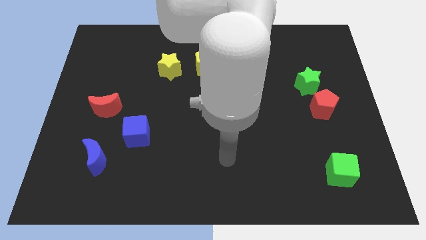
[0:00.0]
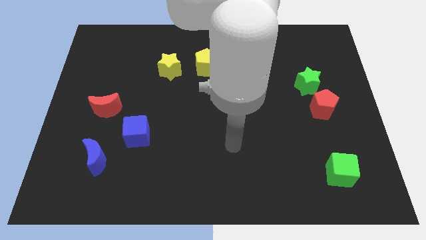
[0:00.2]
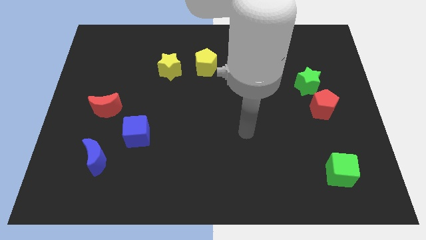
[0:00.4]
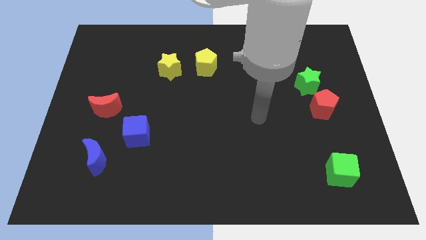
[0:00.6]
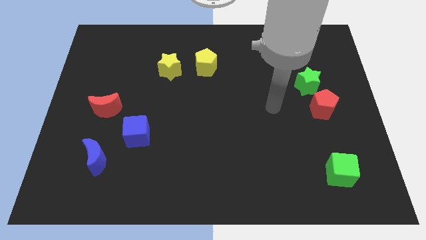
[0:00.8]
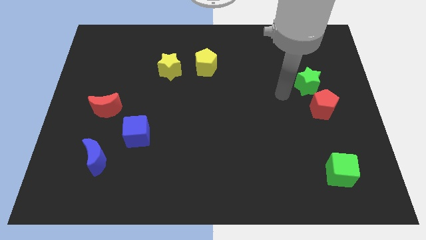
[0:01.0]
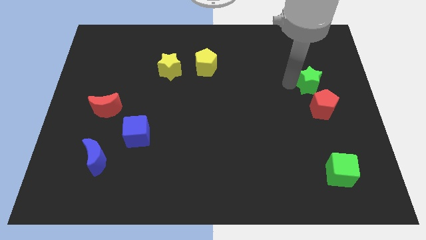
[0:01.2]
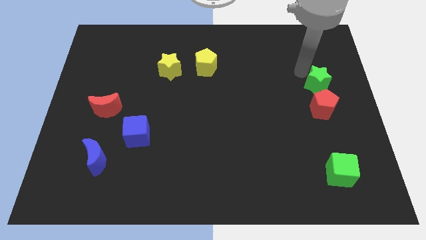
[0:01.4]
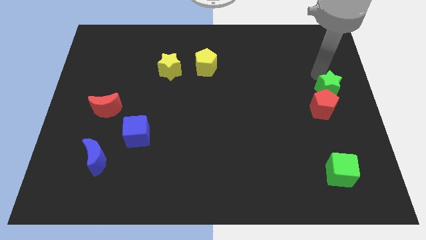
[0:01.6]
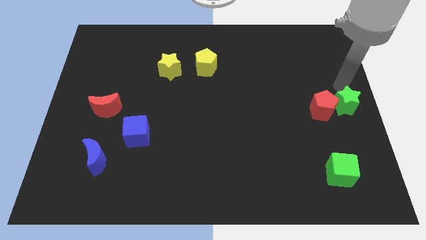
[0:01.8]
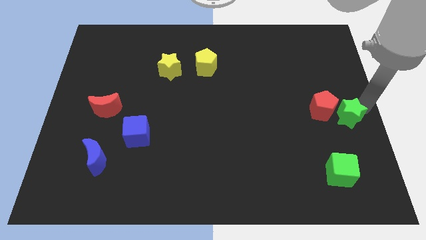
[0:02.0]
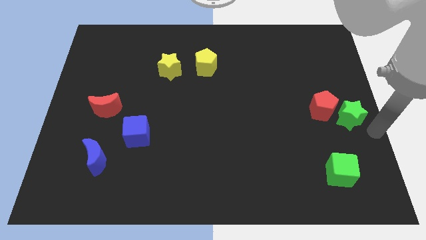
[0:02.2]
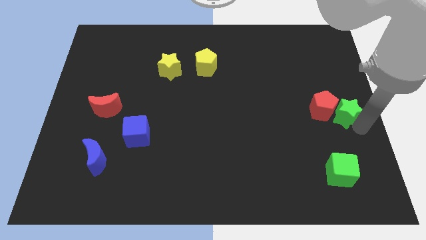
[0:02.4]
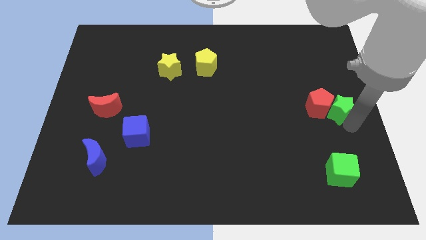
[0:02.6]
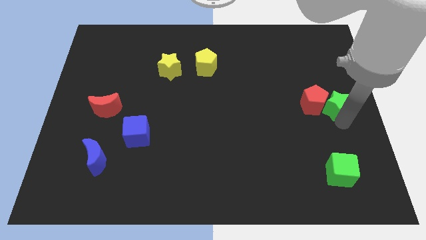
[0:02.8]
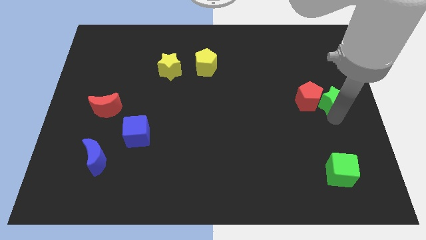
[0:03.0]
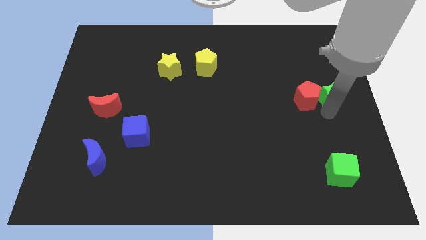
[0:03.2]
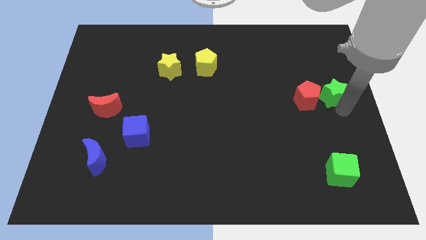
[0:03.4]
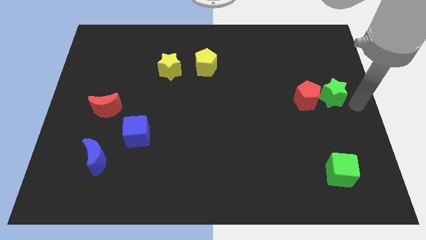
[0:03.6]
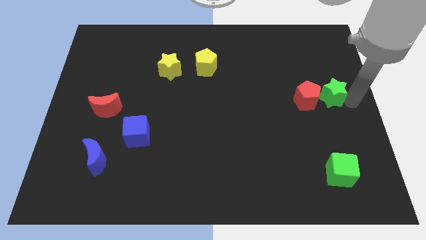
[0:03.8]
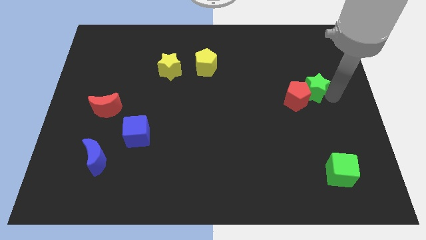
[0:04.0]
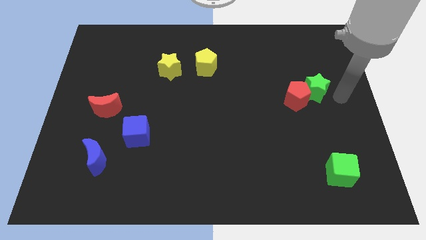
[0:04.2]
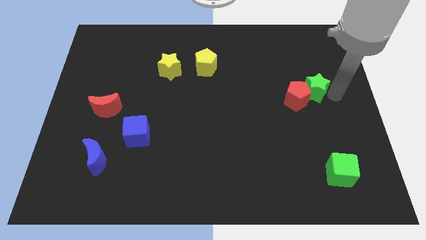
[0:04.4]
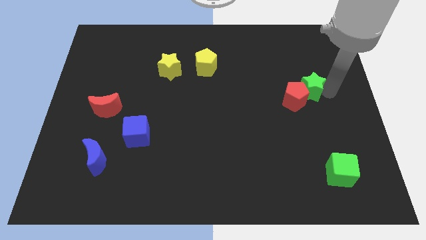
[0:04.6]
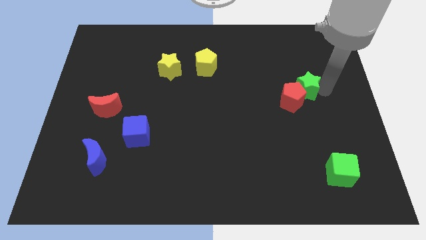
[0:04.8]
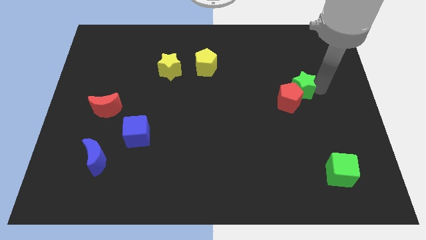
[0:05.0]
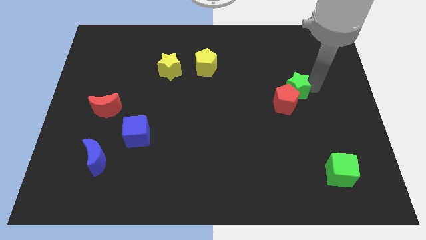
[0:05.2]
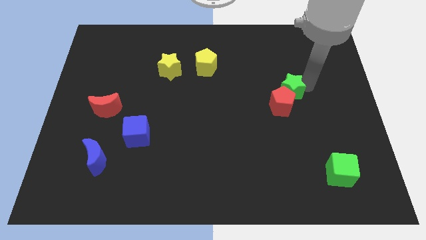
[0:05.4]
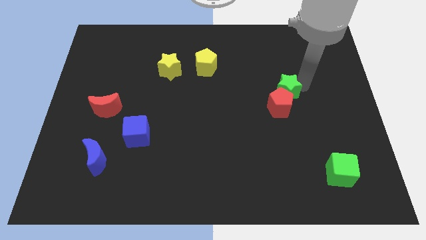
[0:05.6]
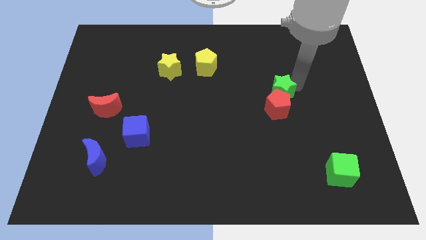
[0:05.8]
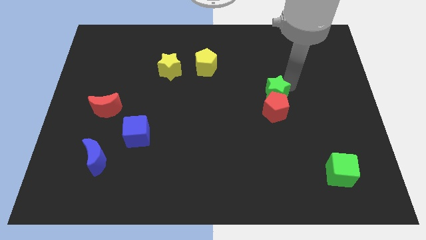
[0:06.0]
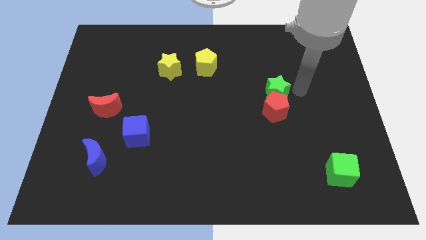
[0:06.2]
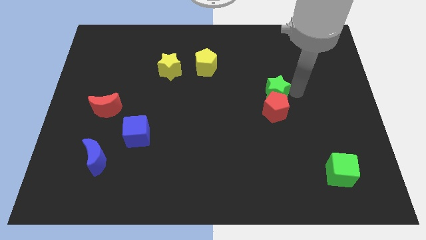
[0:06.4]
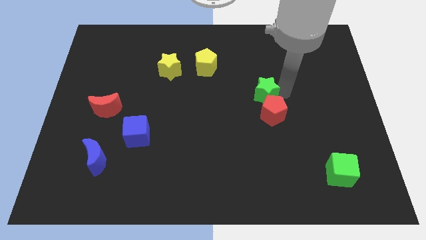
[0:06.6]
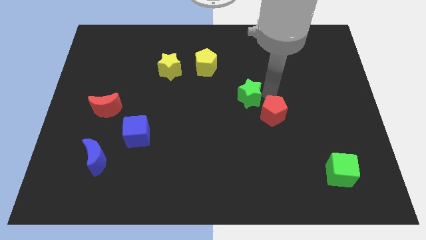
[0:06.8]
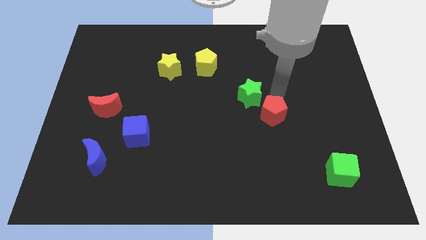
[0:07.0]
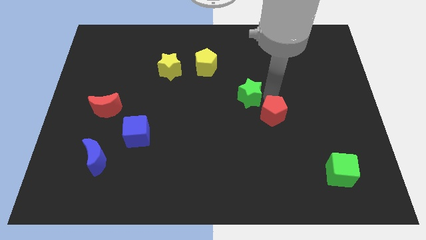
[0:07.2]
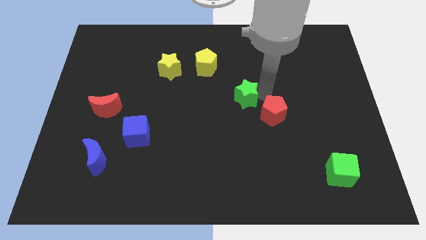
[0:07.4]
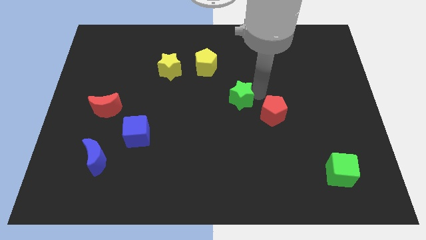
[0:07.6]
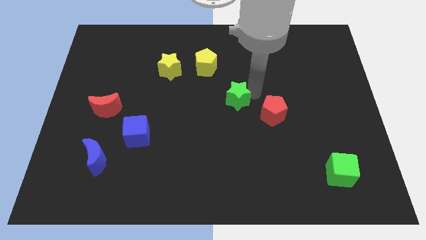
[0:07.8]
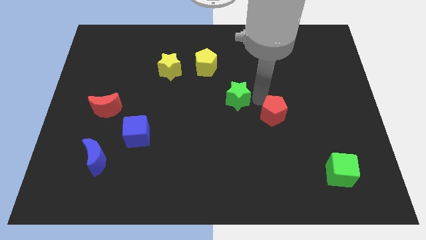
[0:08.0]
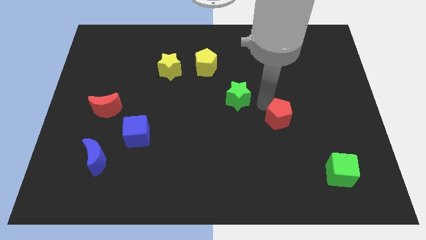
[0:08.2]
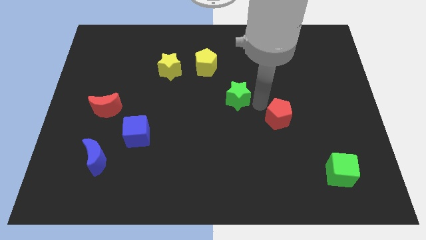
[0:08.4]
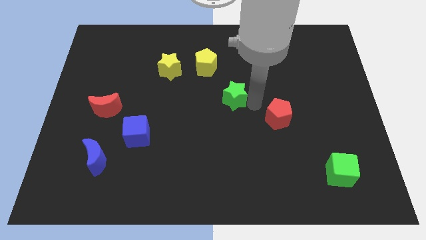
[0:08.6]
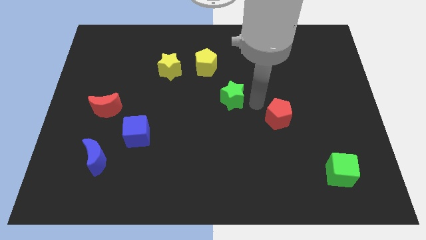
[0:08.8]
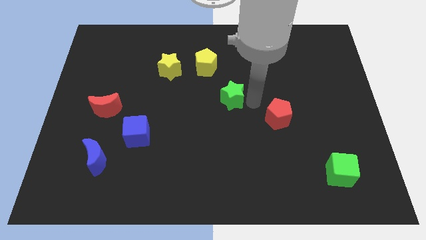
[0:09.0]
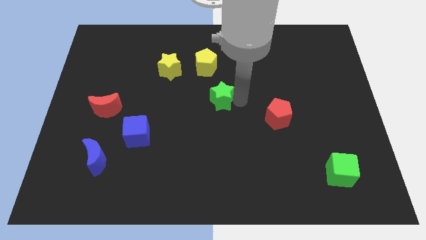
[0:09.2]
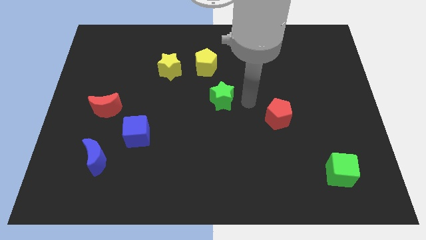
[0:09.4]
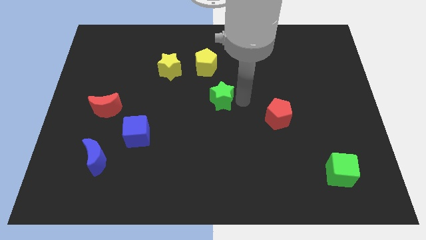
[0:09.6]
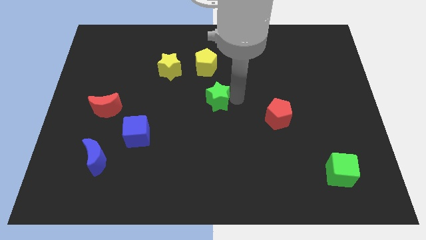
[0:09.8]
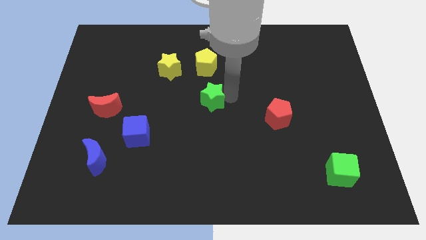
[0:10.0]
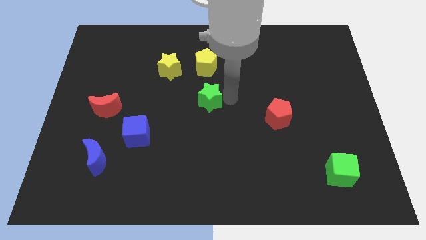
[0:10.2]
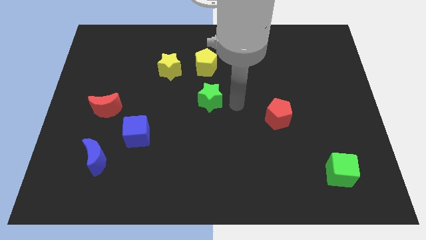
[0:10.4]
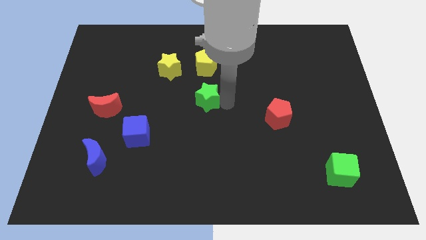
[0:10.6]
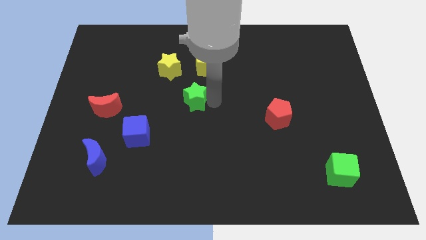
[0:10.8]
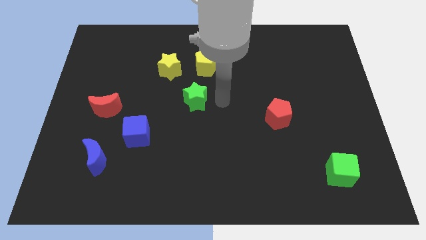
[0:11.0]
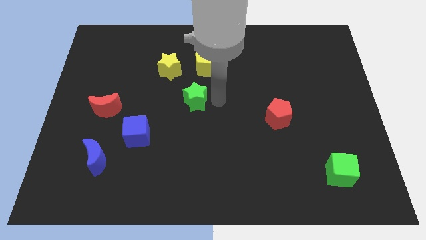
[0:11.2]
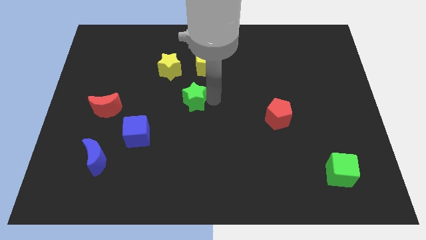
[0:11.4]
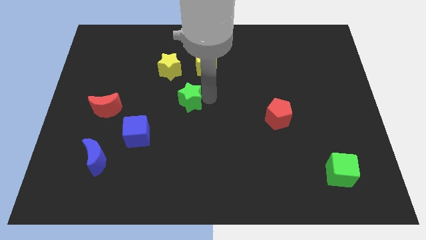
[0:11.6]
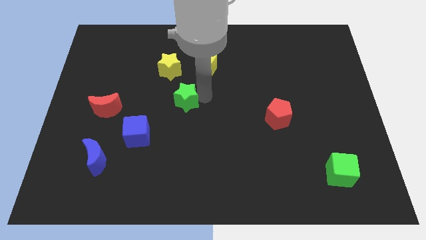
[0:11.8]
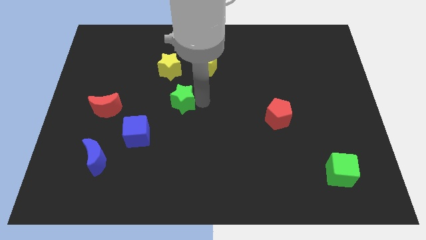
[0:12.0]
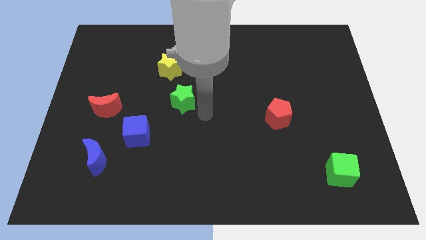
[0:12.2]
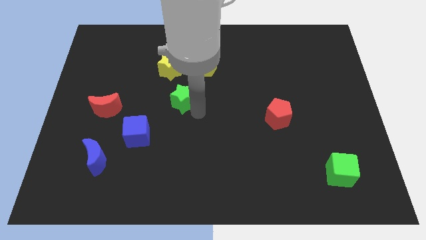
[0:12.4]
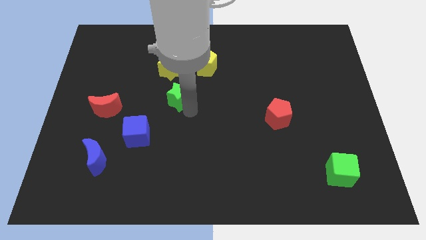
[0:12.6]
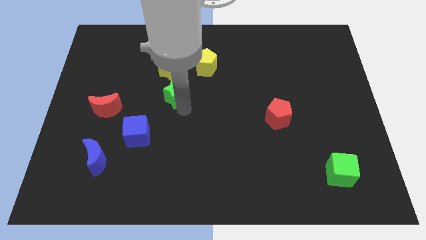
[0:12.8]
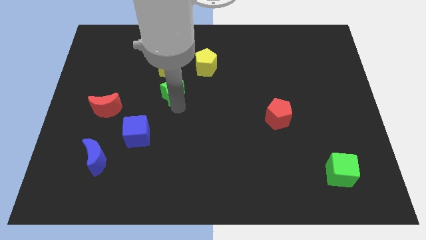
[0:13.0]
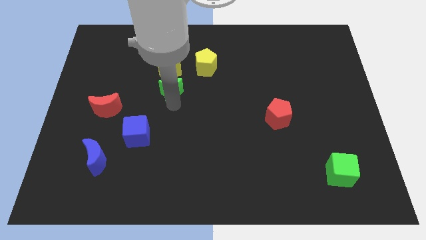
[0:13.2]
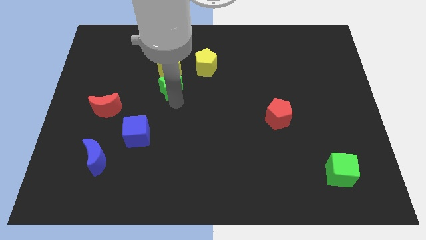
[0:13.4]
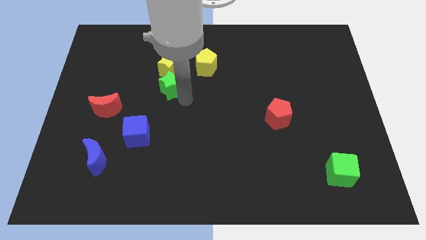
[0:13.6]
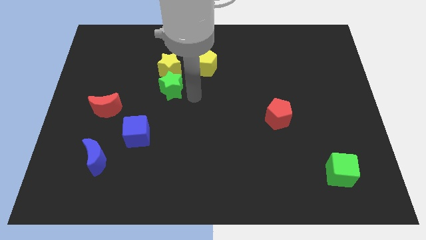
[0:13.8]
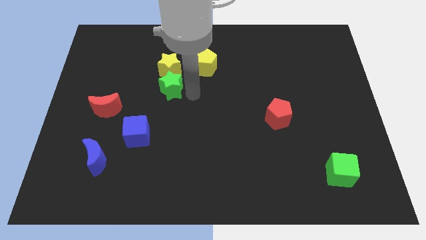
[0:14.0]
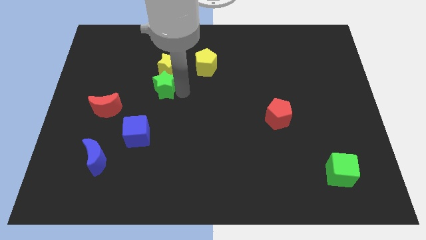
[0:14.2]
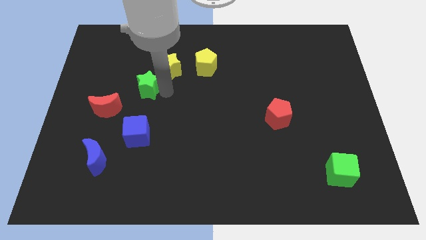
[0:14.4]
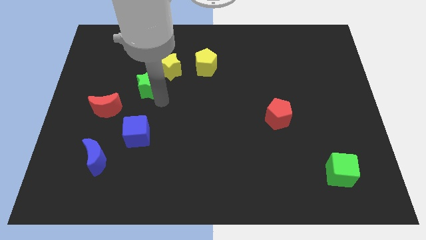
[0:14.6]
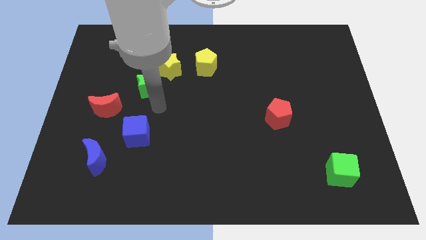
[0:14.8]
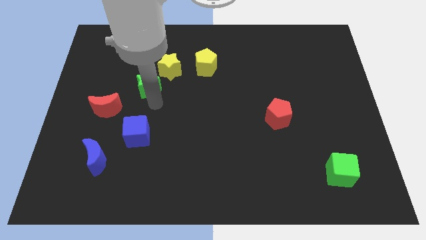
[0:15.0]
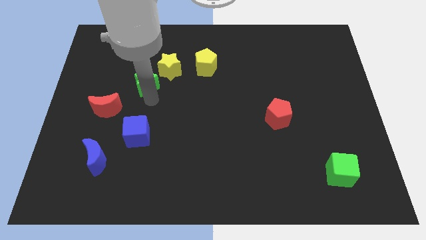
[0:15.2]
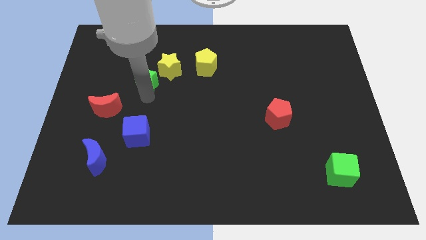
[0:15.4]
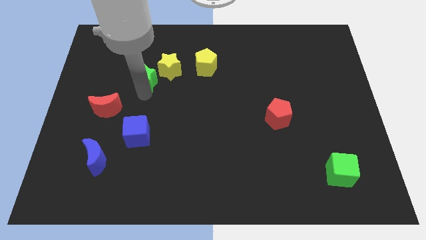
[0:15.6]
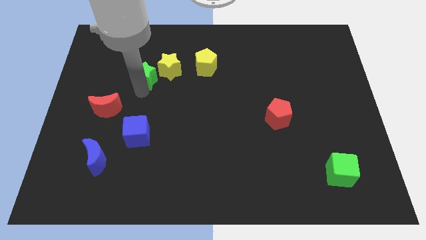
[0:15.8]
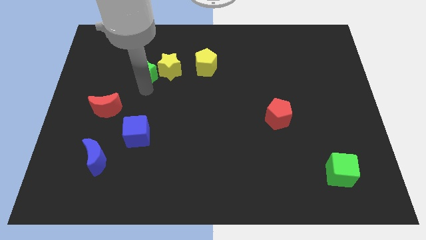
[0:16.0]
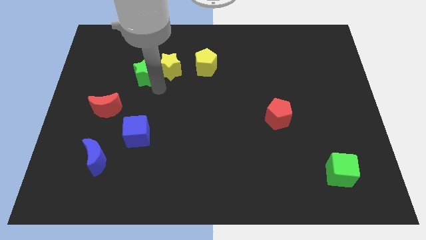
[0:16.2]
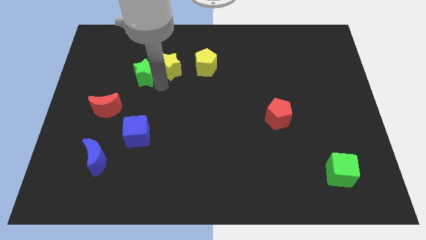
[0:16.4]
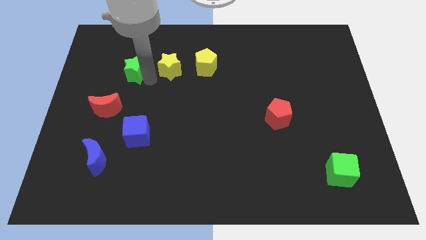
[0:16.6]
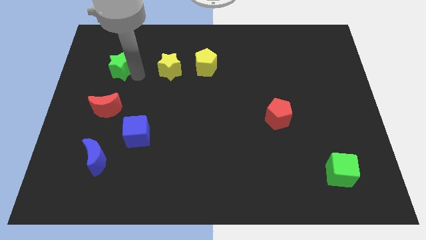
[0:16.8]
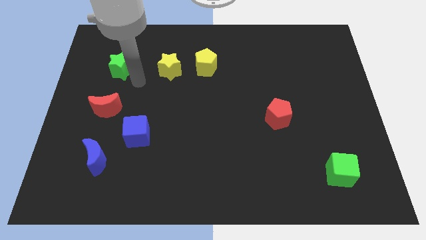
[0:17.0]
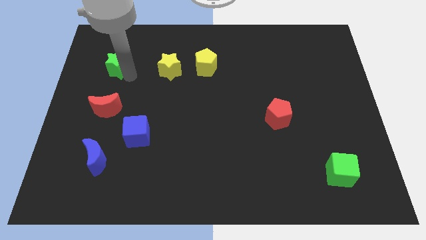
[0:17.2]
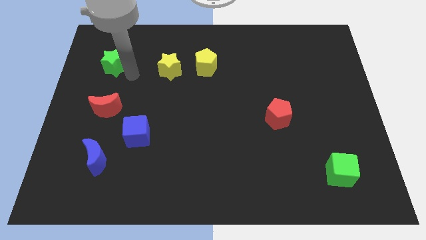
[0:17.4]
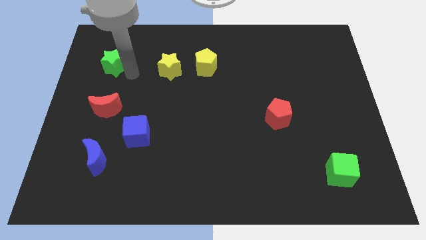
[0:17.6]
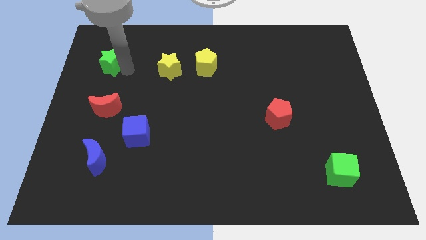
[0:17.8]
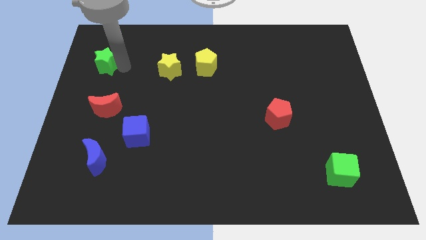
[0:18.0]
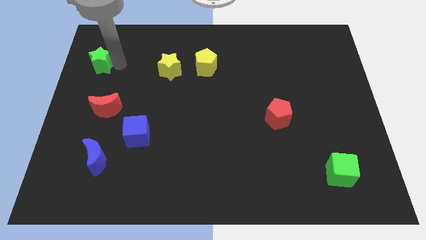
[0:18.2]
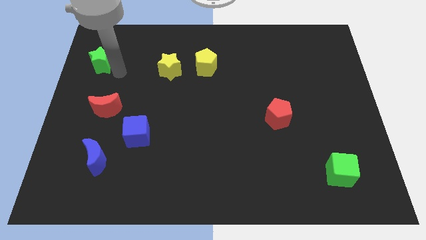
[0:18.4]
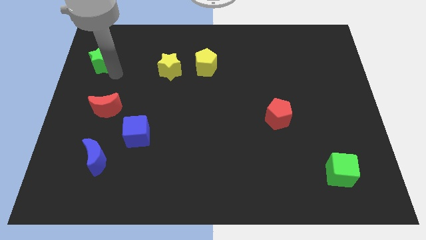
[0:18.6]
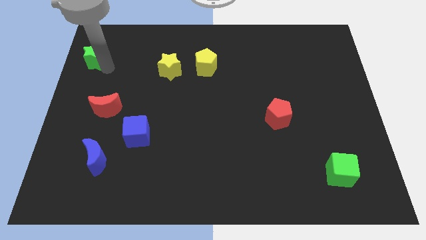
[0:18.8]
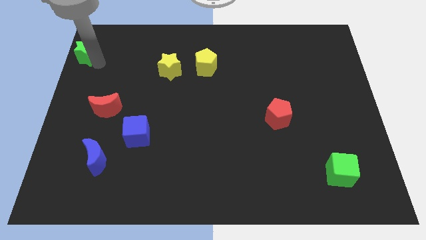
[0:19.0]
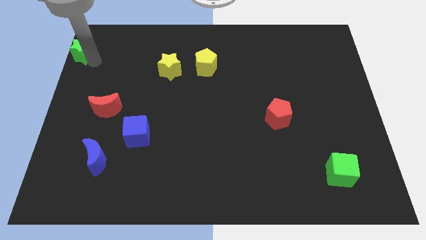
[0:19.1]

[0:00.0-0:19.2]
push the green star to the top left corner
